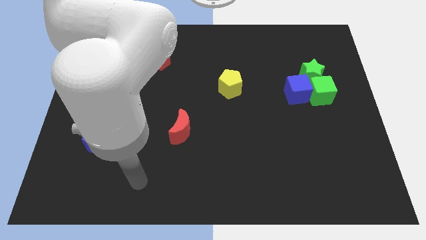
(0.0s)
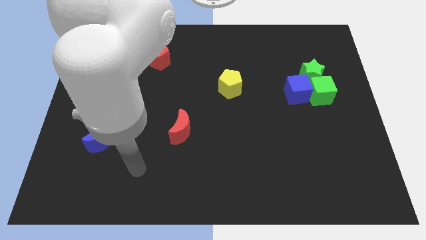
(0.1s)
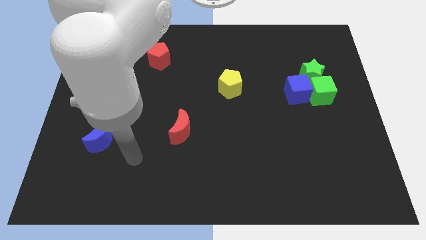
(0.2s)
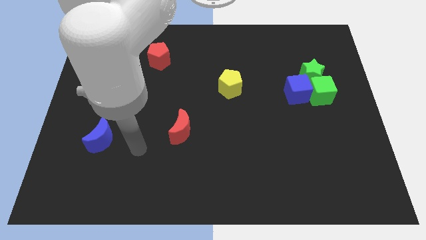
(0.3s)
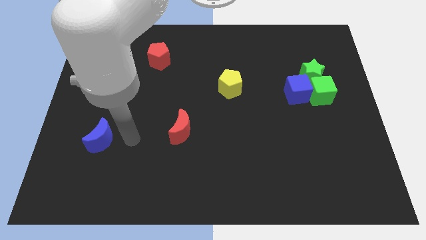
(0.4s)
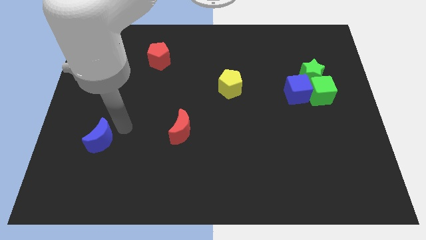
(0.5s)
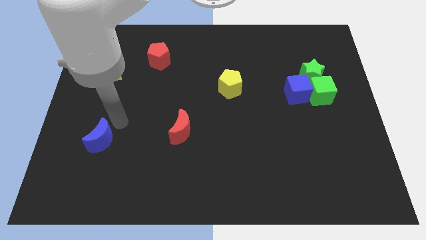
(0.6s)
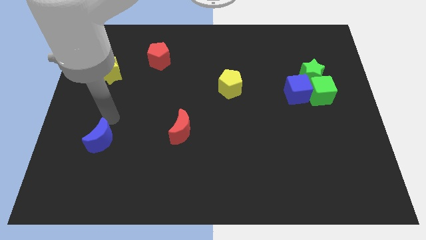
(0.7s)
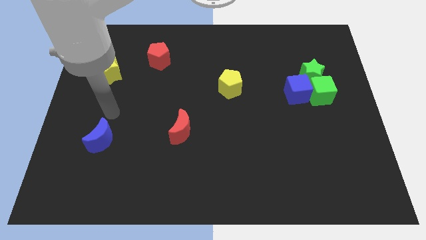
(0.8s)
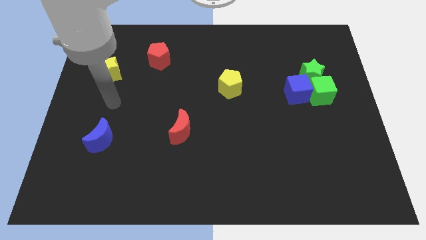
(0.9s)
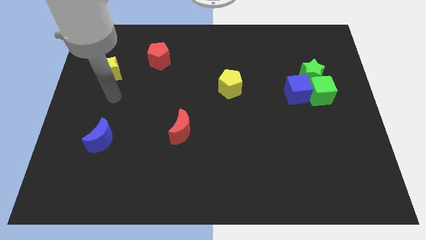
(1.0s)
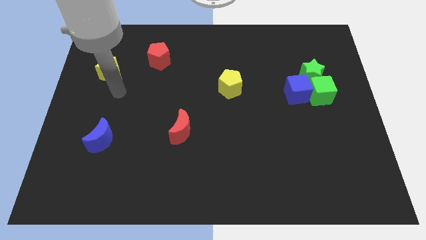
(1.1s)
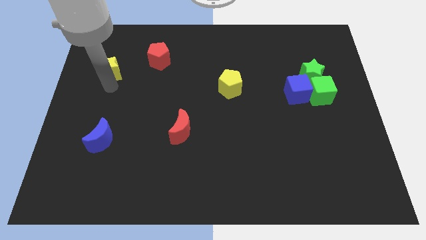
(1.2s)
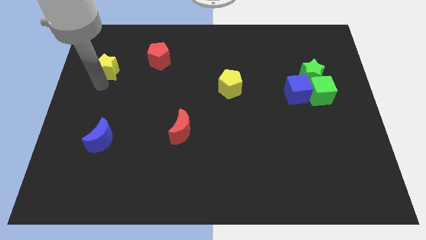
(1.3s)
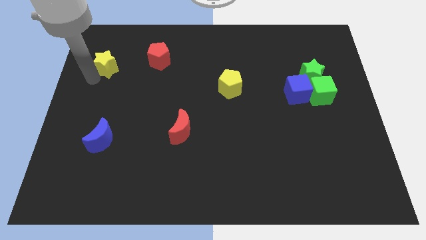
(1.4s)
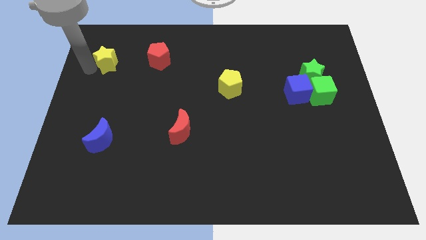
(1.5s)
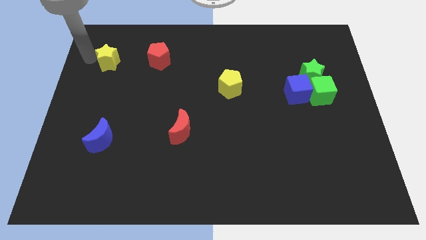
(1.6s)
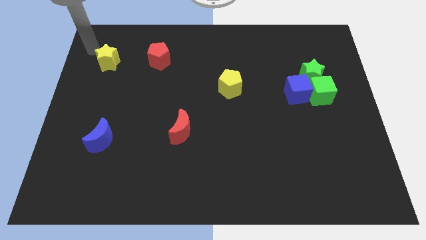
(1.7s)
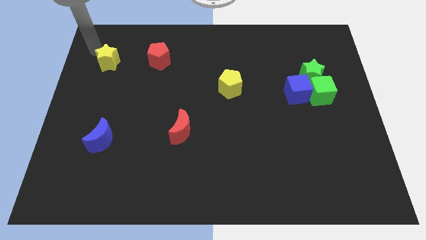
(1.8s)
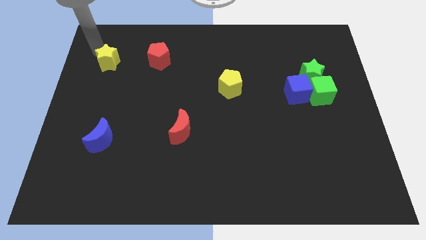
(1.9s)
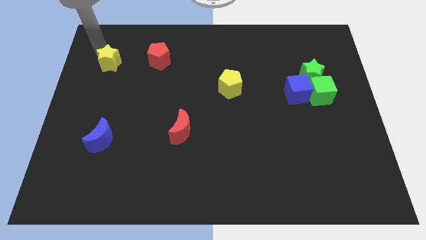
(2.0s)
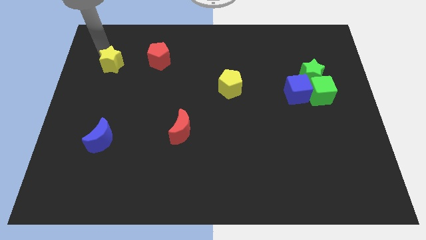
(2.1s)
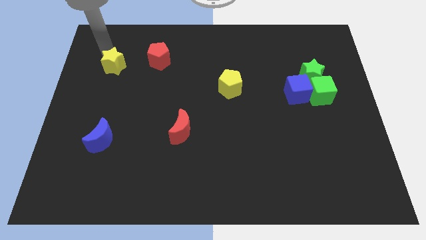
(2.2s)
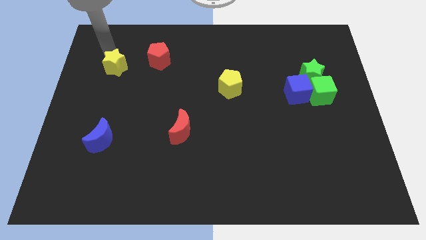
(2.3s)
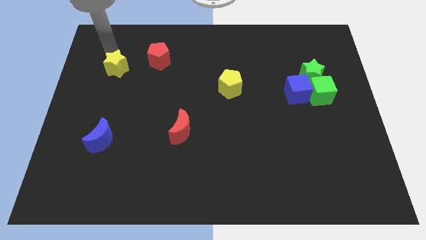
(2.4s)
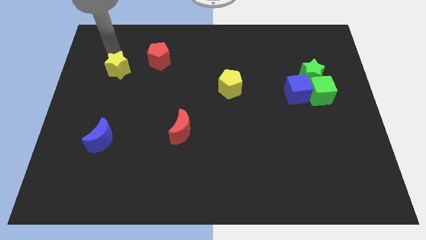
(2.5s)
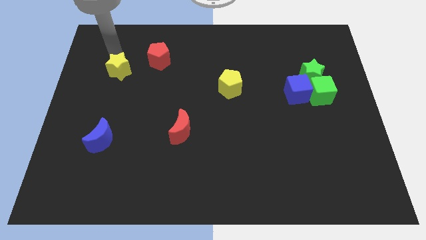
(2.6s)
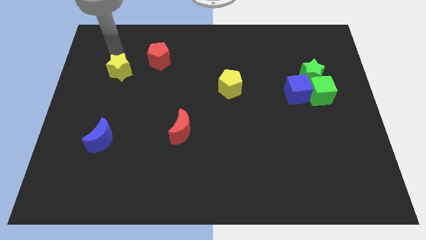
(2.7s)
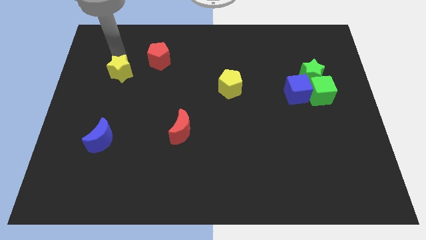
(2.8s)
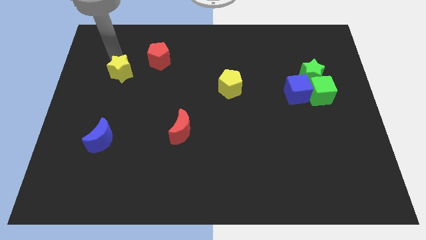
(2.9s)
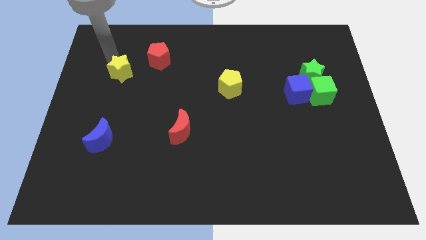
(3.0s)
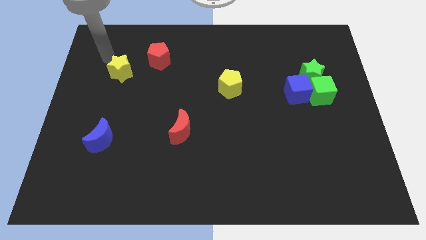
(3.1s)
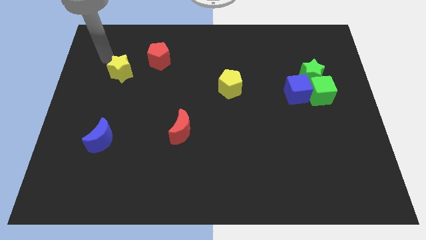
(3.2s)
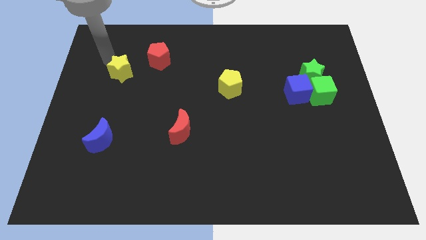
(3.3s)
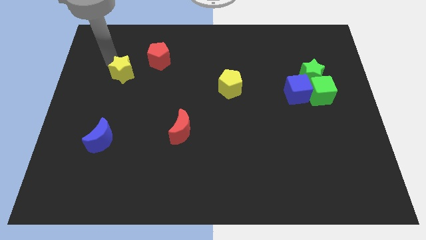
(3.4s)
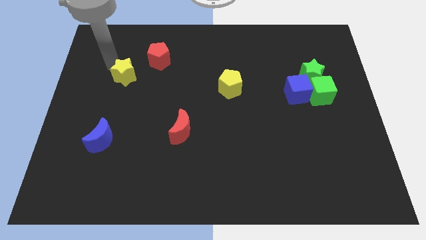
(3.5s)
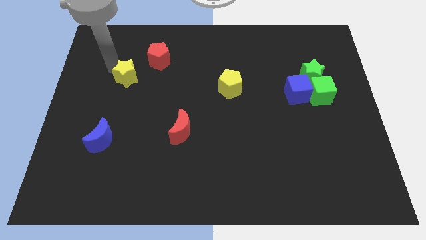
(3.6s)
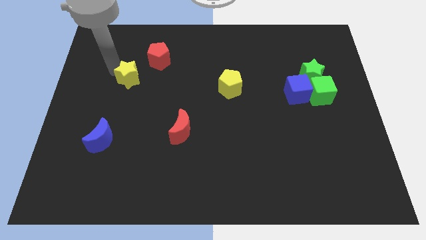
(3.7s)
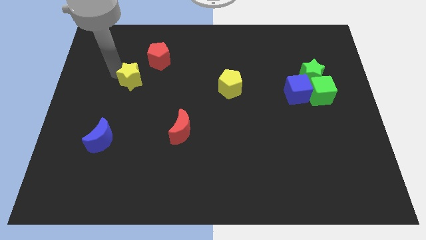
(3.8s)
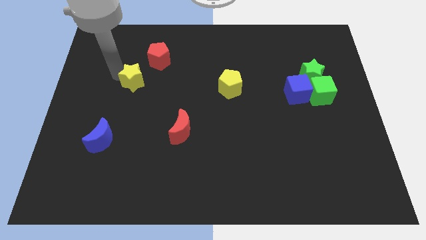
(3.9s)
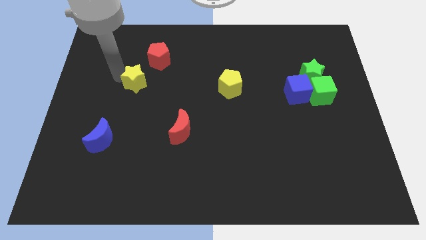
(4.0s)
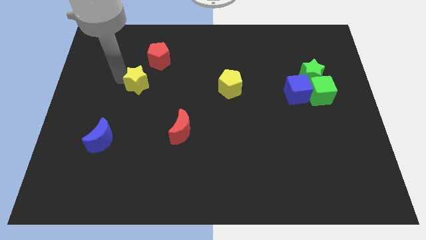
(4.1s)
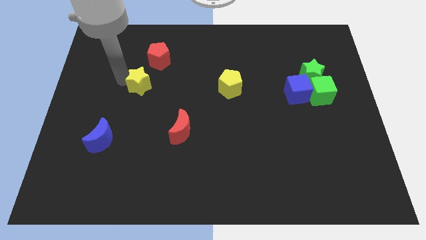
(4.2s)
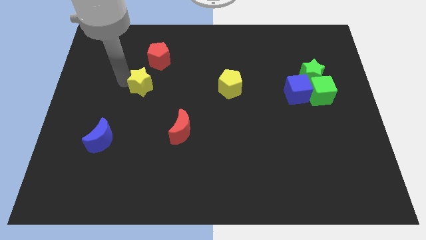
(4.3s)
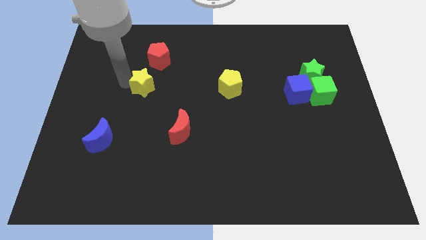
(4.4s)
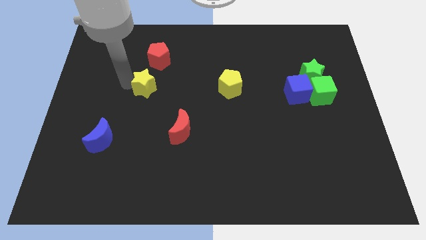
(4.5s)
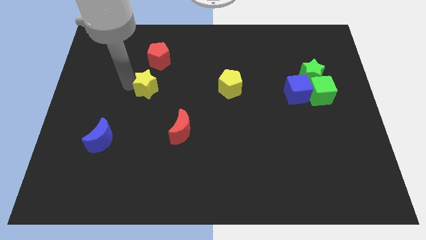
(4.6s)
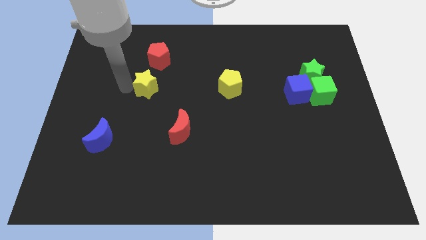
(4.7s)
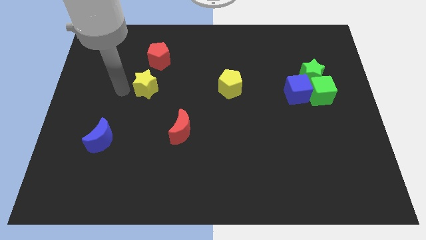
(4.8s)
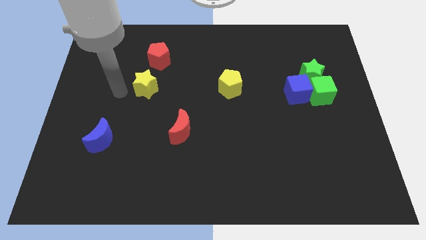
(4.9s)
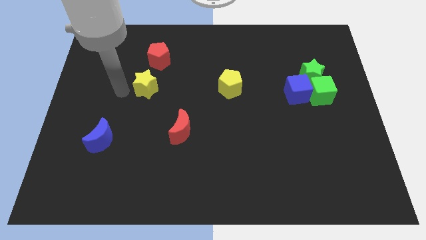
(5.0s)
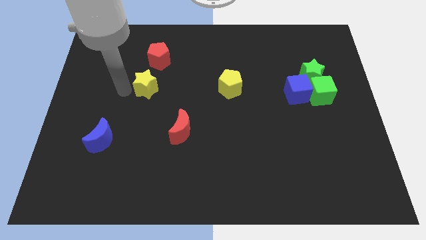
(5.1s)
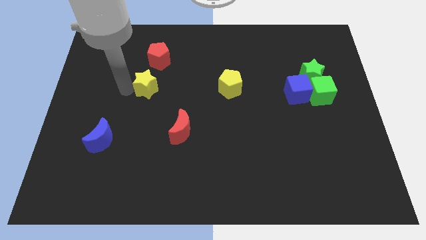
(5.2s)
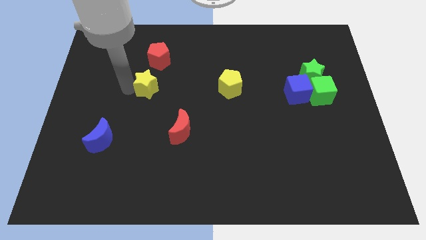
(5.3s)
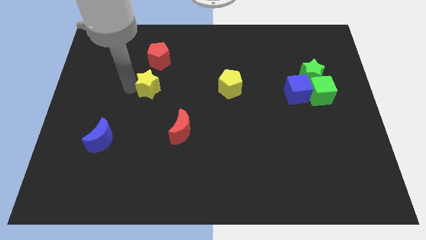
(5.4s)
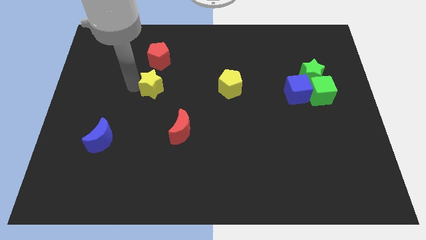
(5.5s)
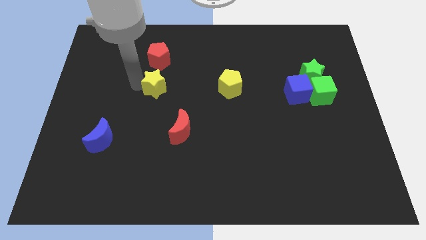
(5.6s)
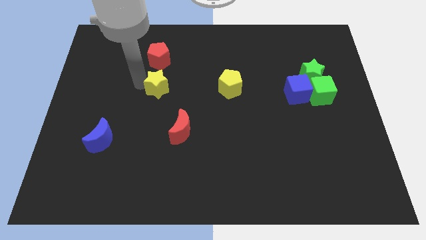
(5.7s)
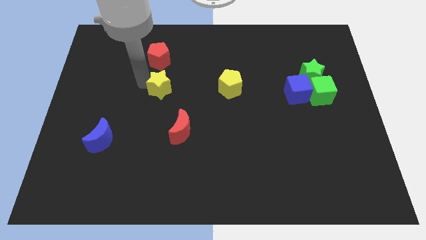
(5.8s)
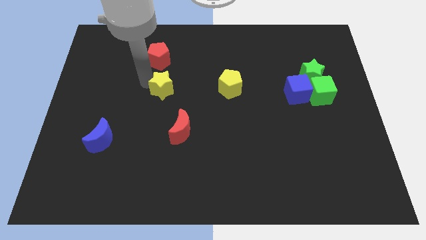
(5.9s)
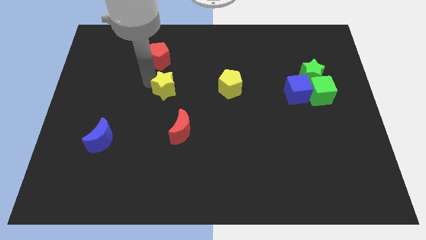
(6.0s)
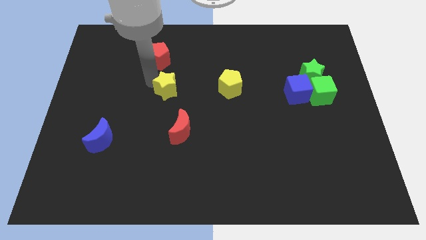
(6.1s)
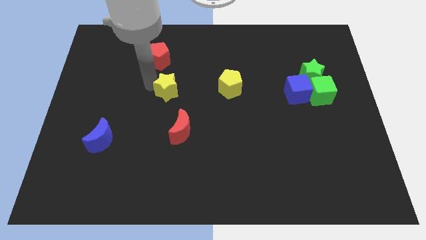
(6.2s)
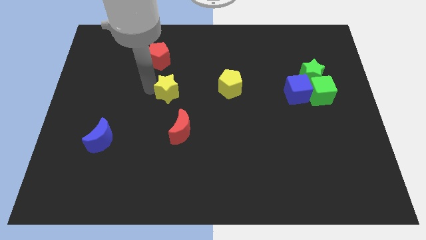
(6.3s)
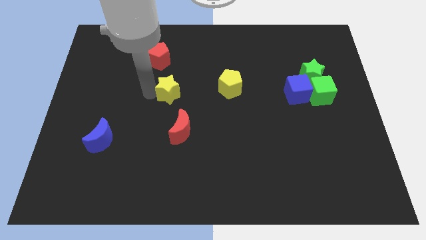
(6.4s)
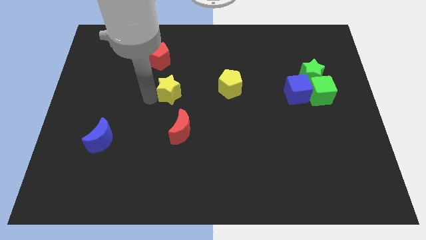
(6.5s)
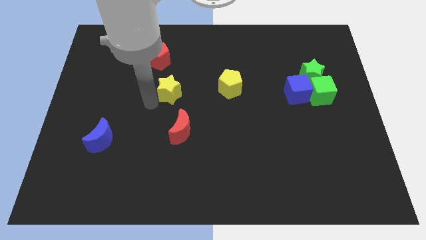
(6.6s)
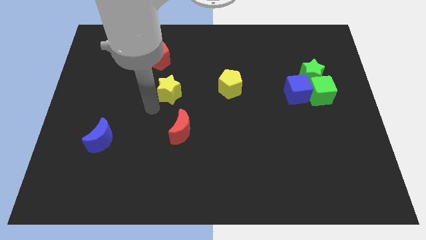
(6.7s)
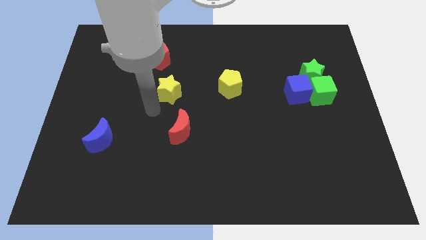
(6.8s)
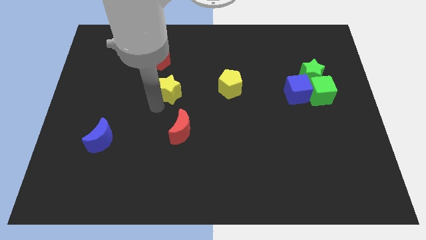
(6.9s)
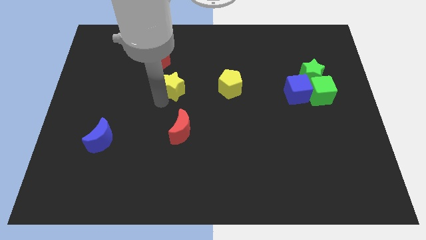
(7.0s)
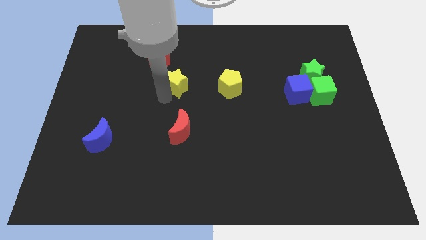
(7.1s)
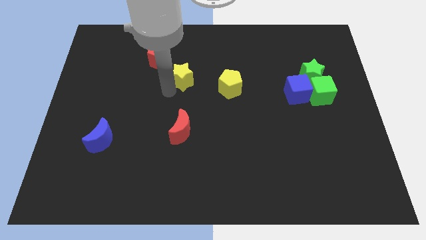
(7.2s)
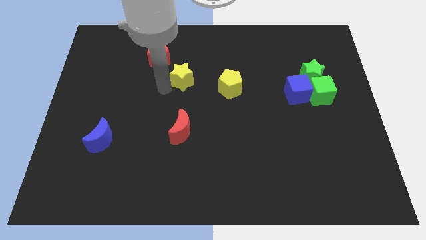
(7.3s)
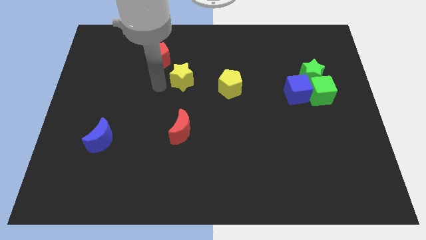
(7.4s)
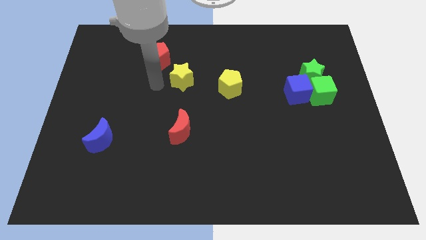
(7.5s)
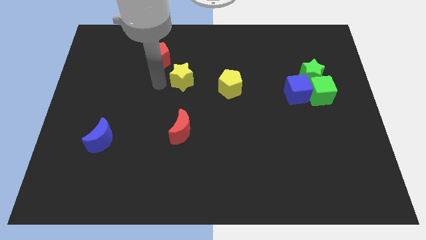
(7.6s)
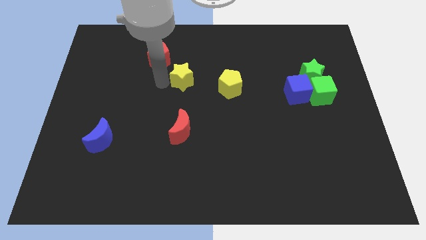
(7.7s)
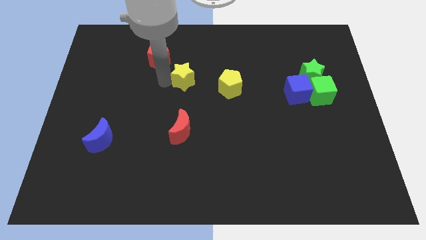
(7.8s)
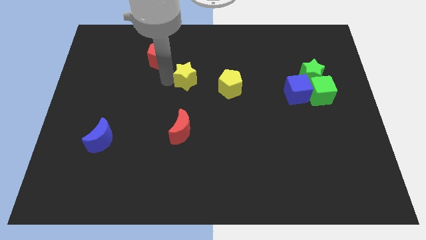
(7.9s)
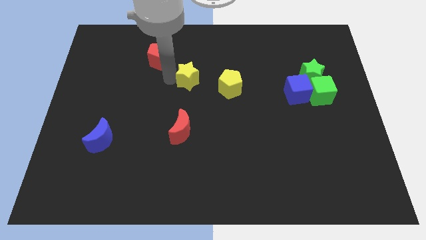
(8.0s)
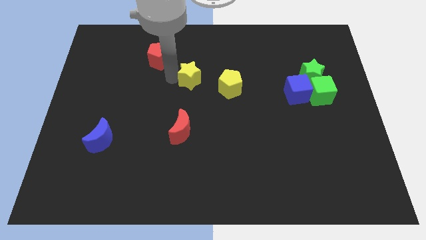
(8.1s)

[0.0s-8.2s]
move the yellow star right
